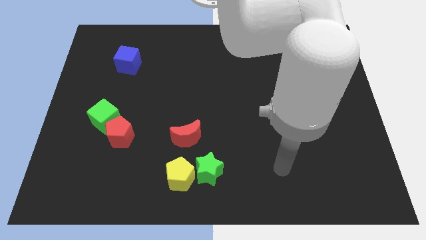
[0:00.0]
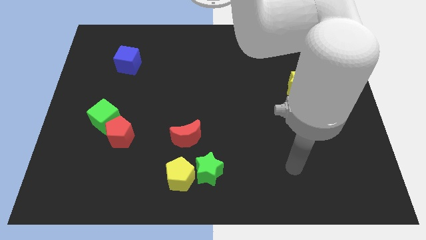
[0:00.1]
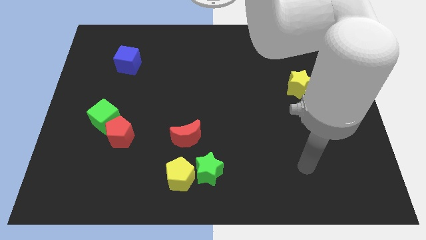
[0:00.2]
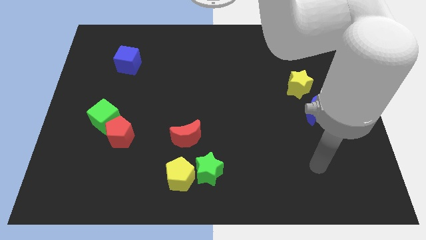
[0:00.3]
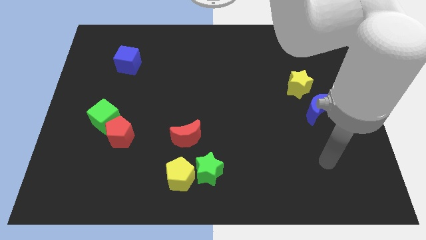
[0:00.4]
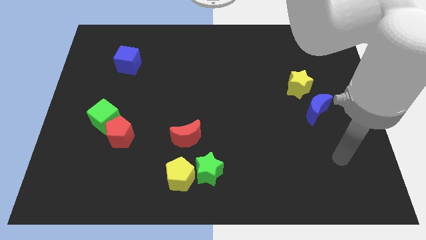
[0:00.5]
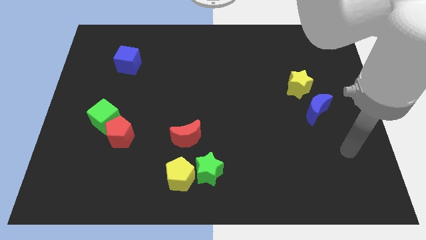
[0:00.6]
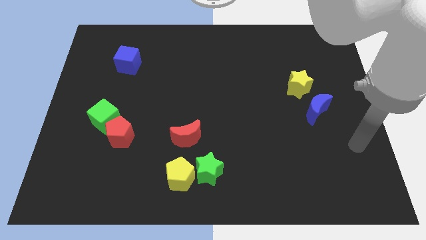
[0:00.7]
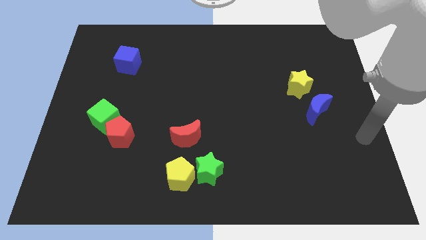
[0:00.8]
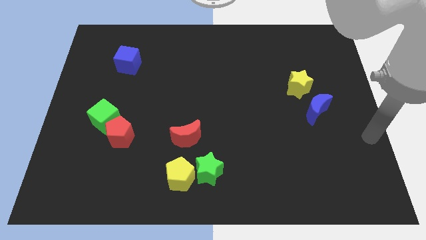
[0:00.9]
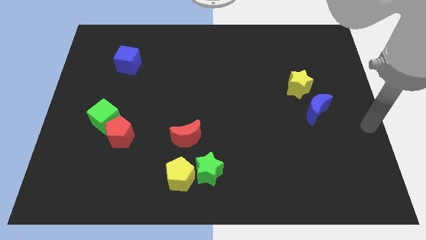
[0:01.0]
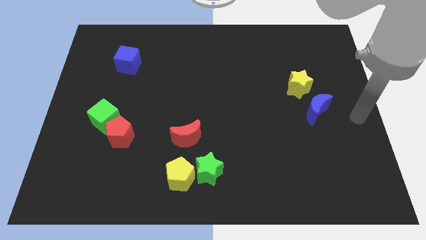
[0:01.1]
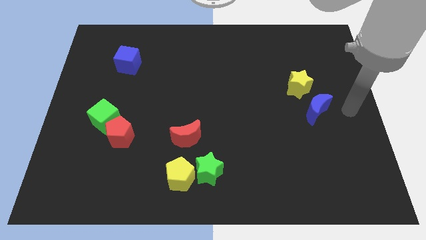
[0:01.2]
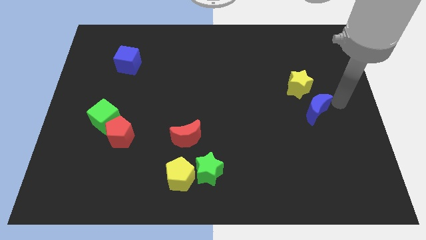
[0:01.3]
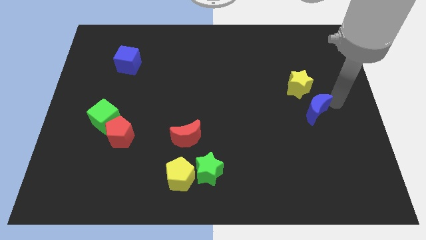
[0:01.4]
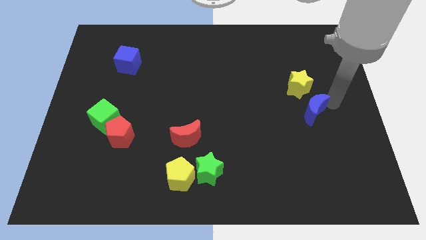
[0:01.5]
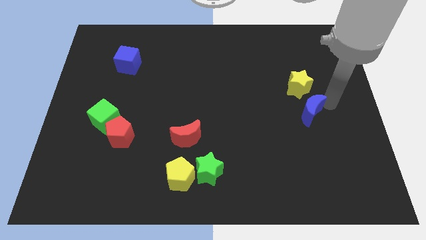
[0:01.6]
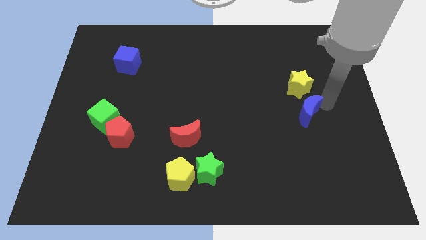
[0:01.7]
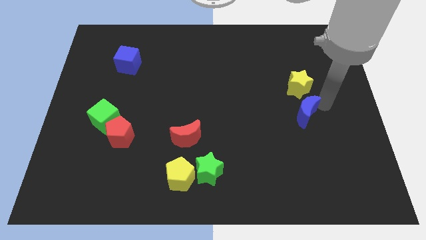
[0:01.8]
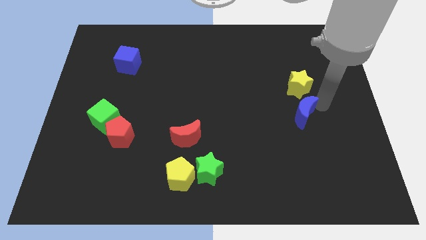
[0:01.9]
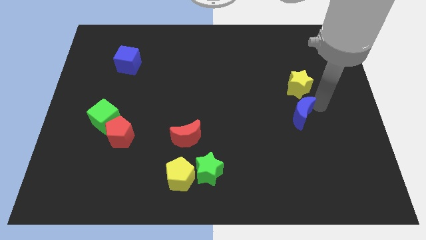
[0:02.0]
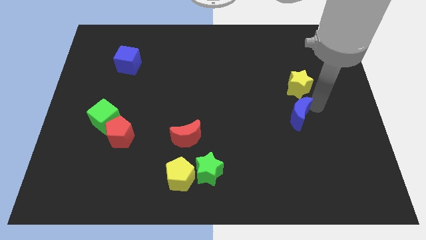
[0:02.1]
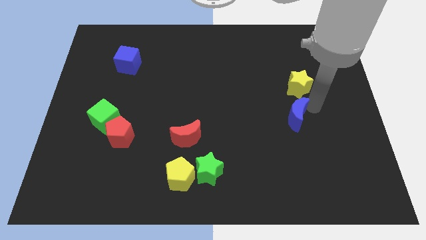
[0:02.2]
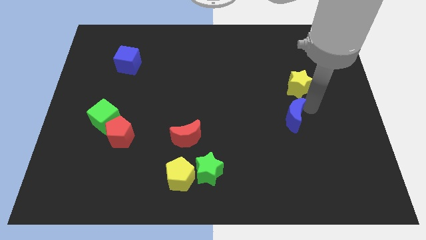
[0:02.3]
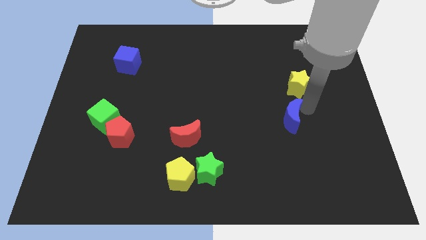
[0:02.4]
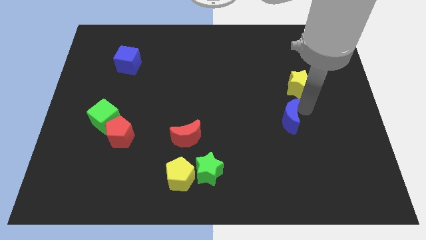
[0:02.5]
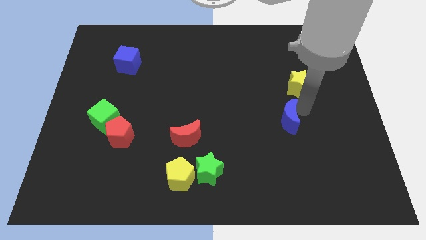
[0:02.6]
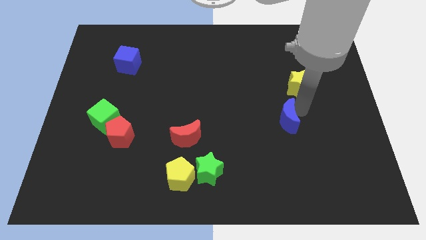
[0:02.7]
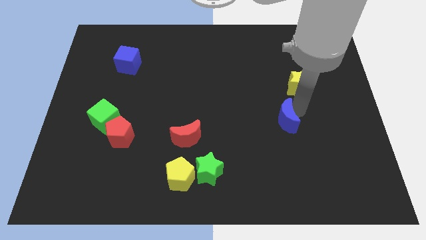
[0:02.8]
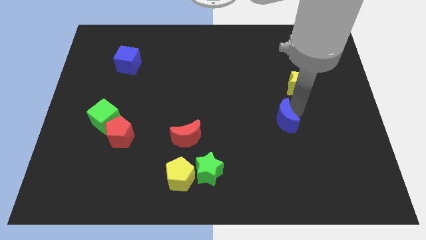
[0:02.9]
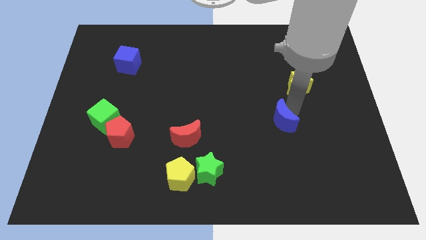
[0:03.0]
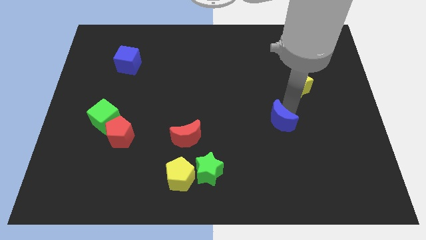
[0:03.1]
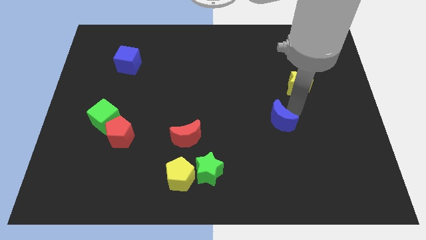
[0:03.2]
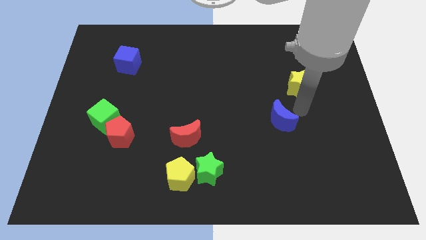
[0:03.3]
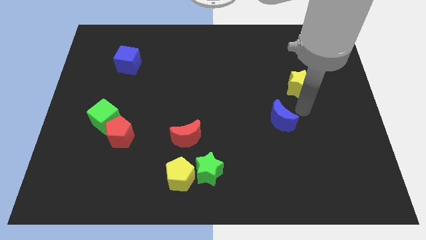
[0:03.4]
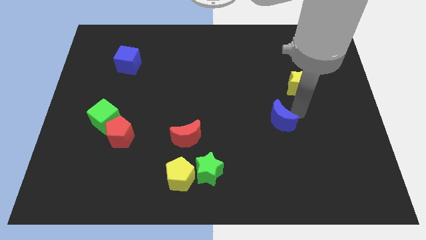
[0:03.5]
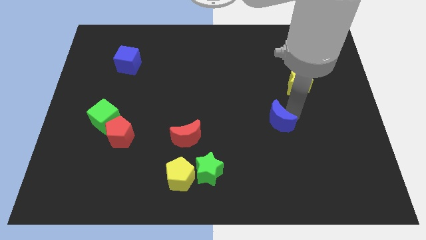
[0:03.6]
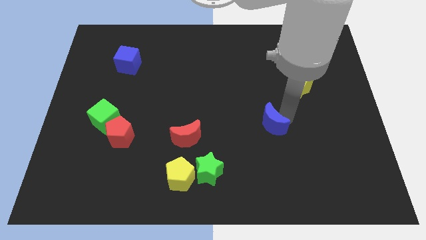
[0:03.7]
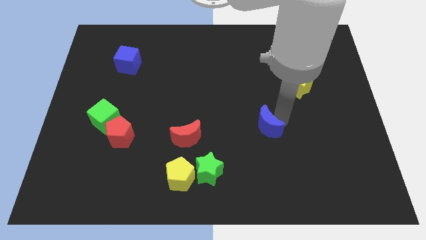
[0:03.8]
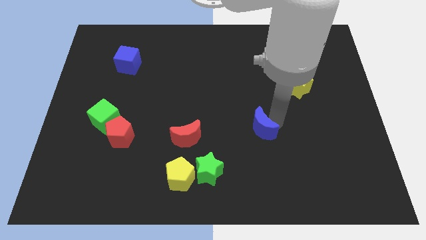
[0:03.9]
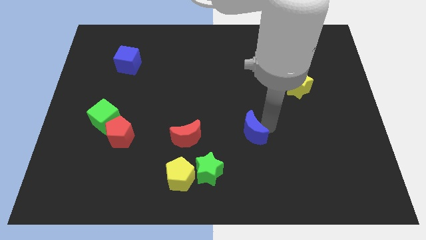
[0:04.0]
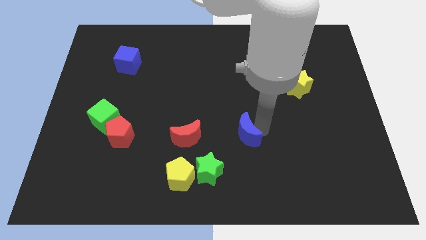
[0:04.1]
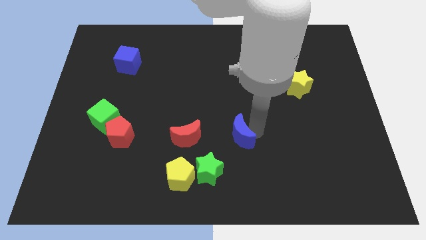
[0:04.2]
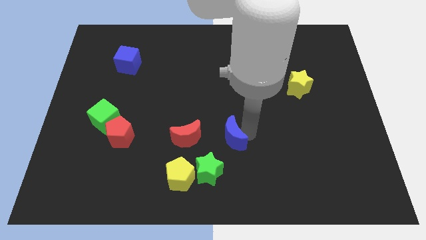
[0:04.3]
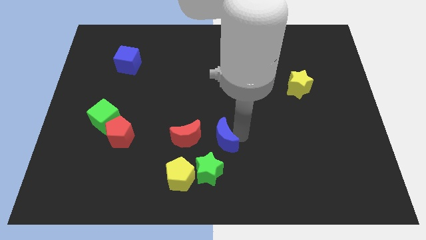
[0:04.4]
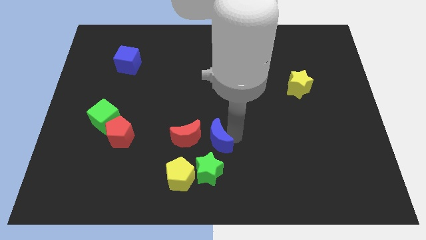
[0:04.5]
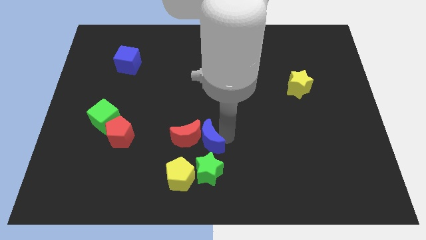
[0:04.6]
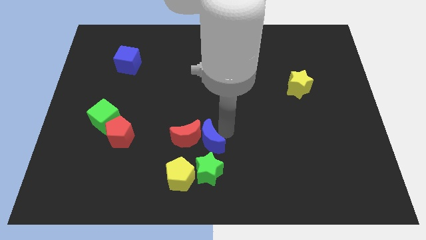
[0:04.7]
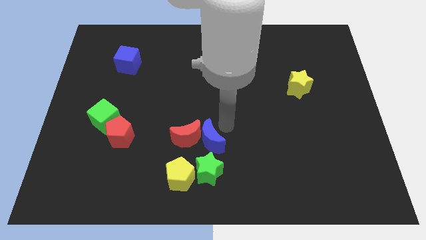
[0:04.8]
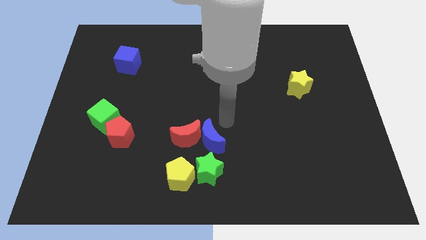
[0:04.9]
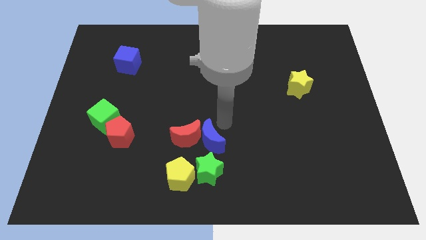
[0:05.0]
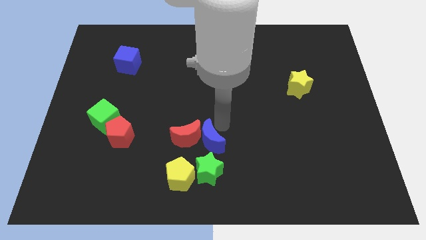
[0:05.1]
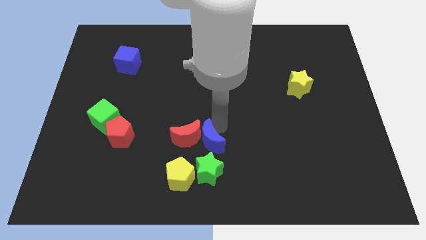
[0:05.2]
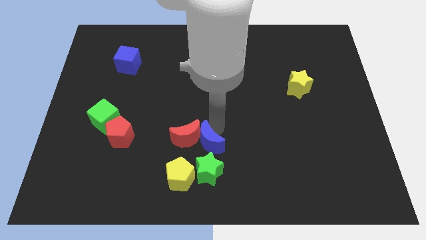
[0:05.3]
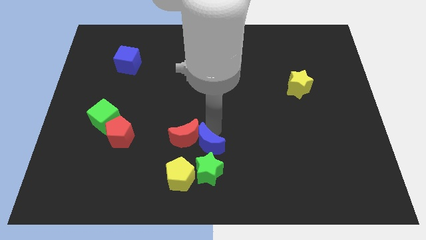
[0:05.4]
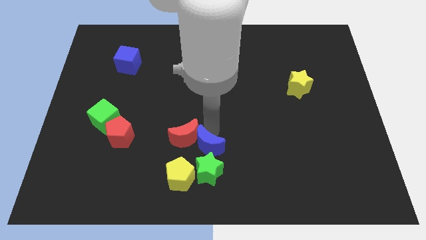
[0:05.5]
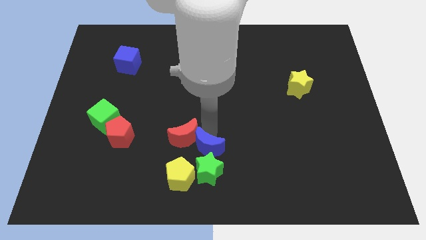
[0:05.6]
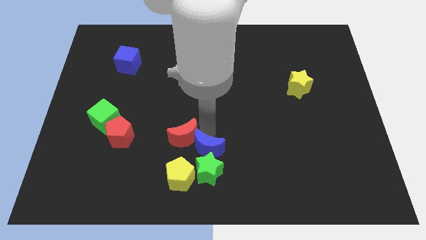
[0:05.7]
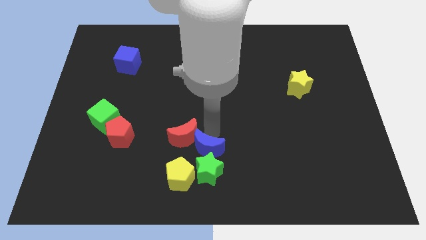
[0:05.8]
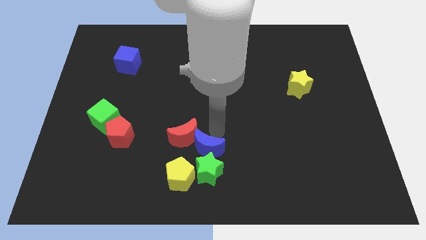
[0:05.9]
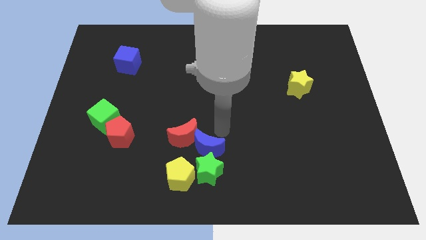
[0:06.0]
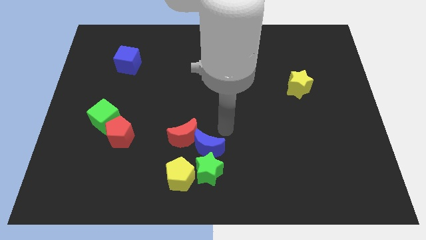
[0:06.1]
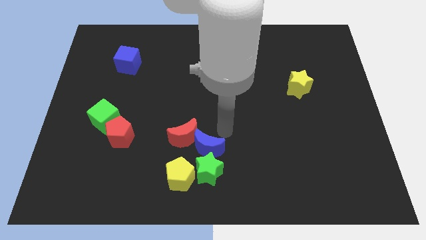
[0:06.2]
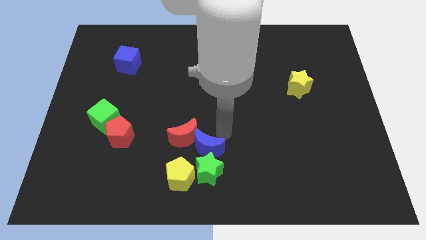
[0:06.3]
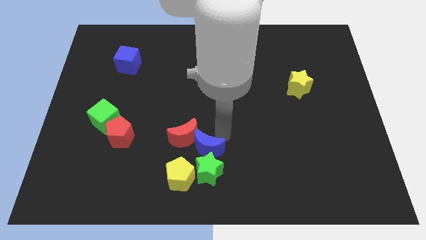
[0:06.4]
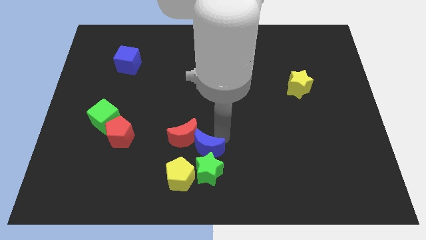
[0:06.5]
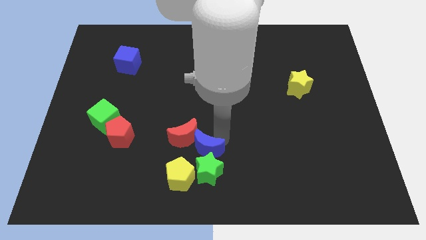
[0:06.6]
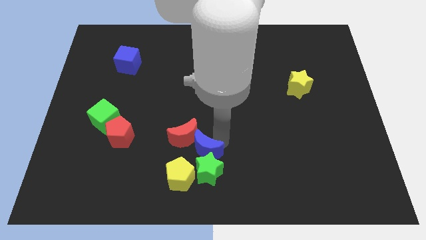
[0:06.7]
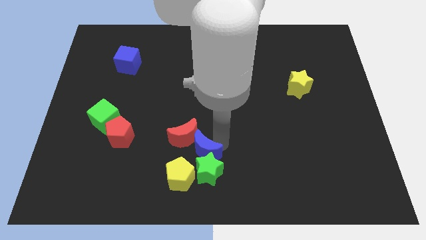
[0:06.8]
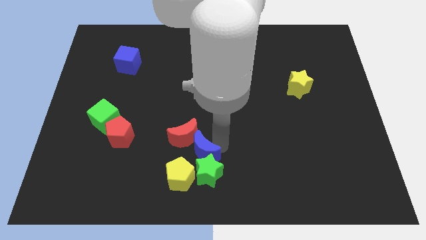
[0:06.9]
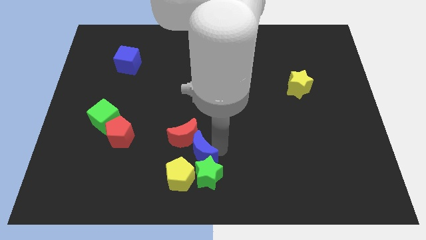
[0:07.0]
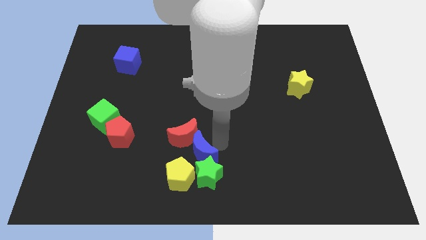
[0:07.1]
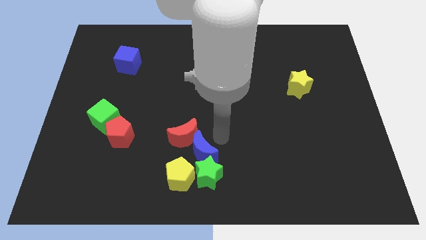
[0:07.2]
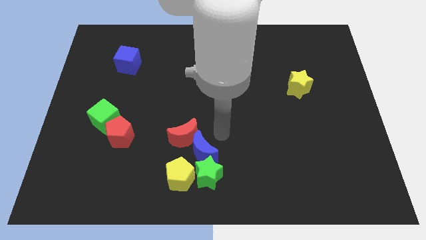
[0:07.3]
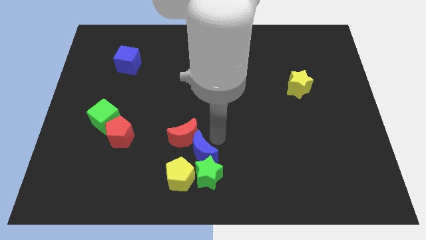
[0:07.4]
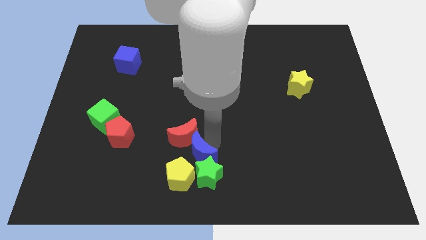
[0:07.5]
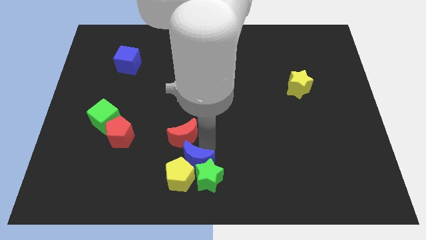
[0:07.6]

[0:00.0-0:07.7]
put the blue moon close to the yellow pentagon
